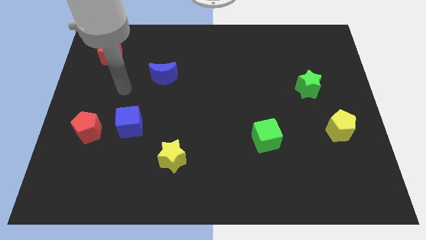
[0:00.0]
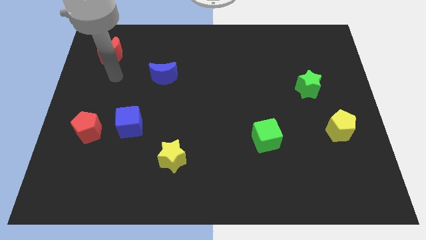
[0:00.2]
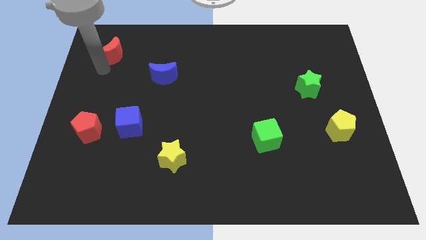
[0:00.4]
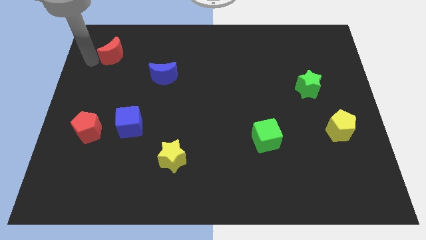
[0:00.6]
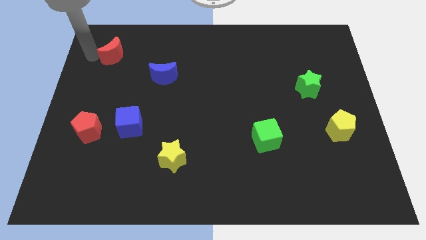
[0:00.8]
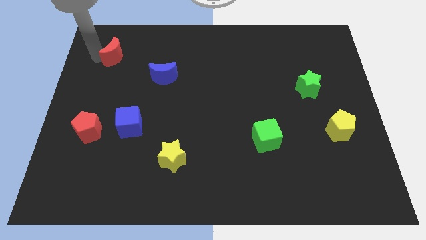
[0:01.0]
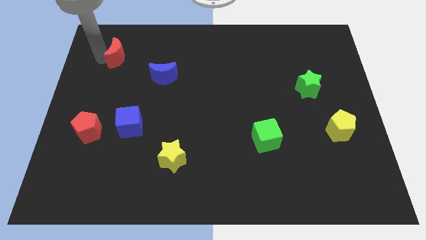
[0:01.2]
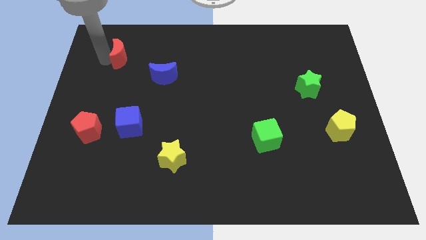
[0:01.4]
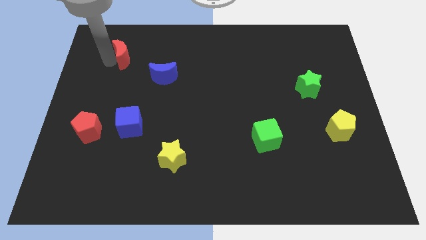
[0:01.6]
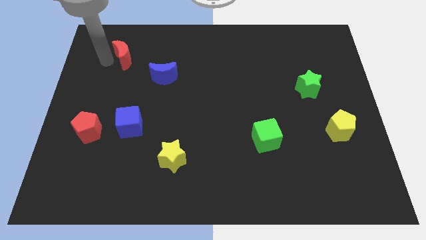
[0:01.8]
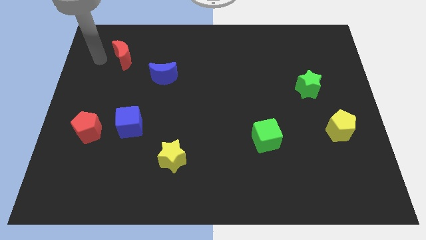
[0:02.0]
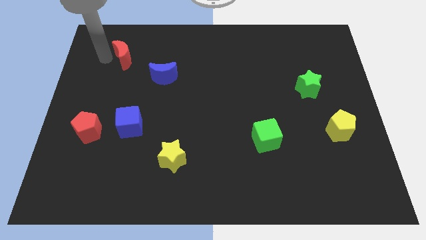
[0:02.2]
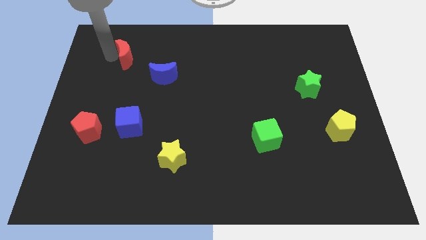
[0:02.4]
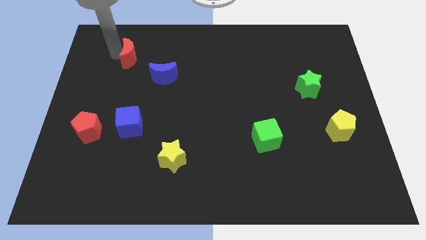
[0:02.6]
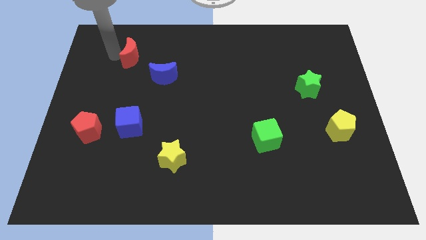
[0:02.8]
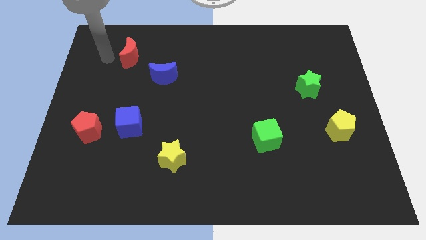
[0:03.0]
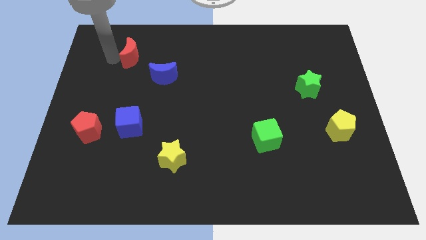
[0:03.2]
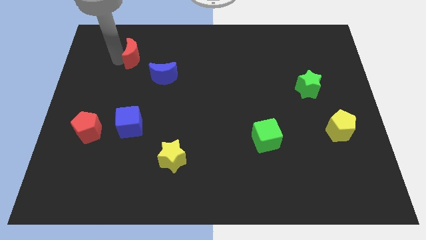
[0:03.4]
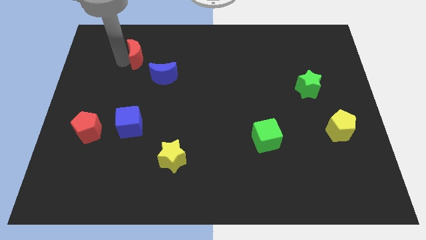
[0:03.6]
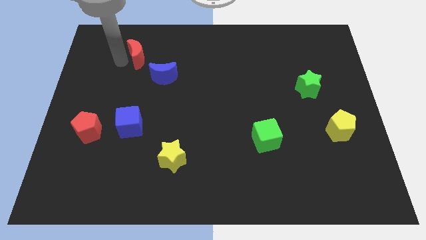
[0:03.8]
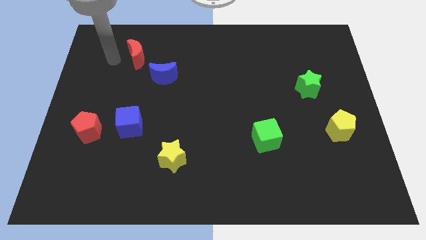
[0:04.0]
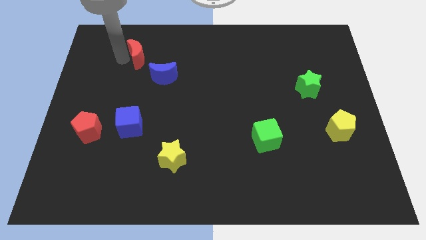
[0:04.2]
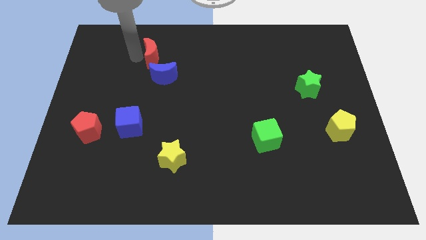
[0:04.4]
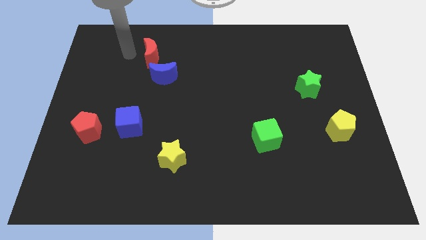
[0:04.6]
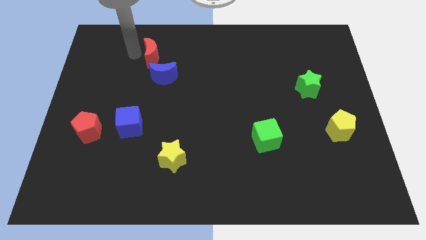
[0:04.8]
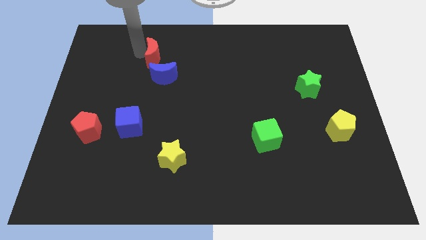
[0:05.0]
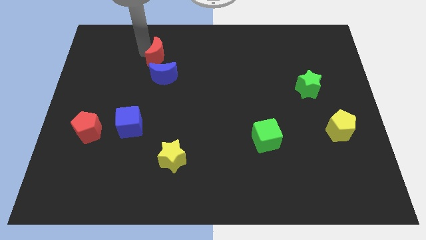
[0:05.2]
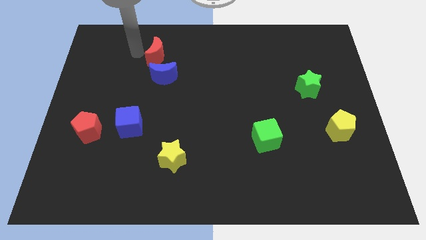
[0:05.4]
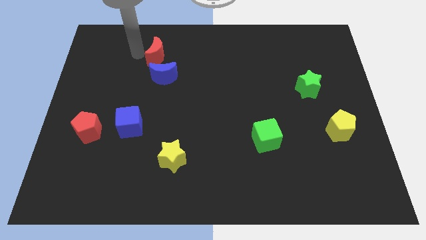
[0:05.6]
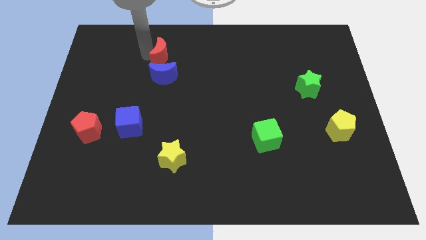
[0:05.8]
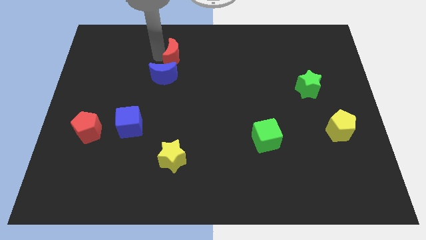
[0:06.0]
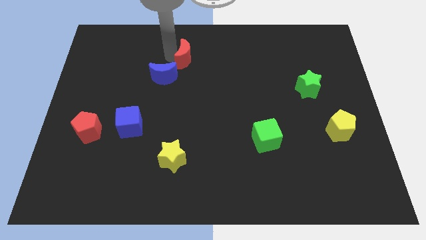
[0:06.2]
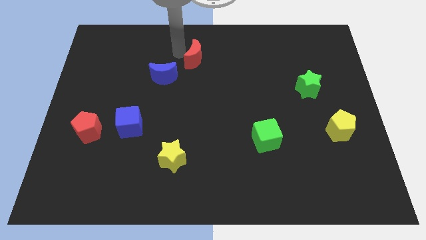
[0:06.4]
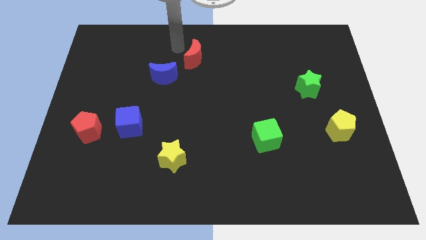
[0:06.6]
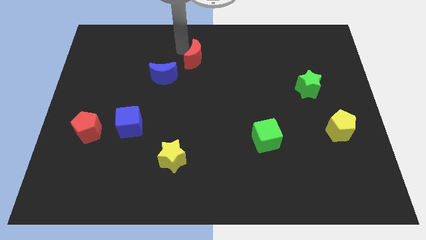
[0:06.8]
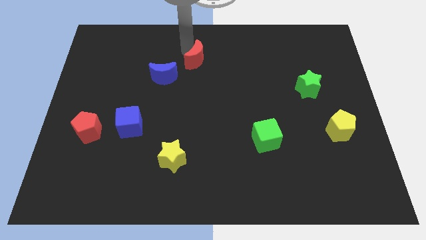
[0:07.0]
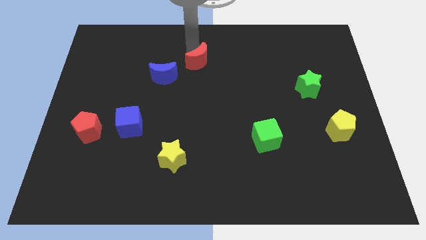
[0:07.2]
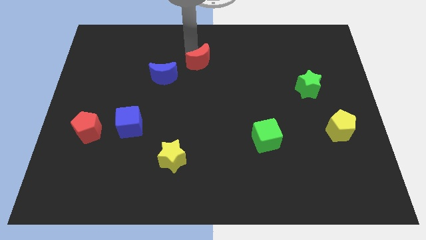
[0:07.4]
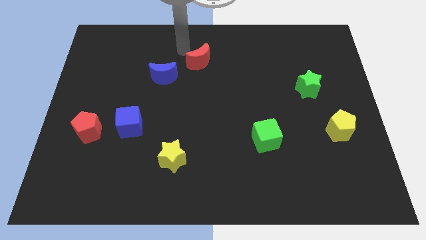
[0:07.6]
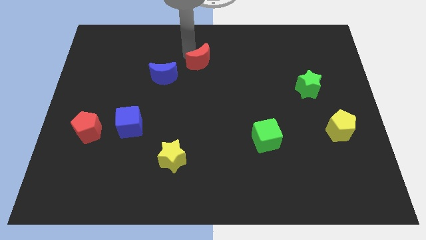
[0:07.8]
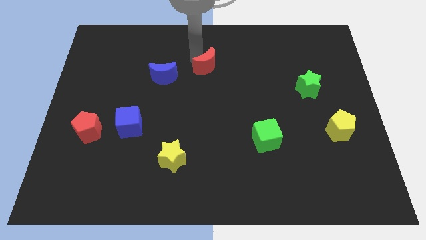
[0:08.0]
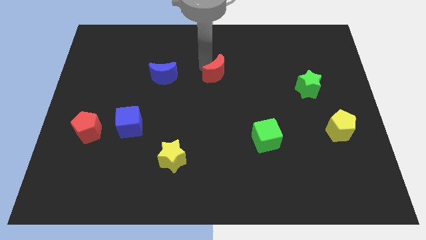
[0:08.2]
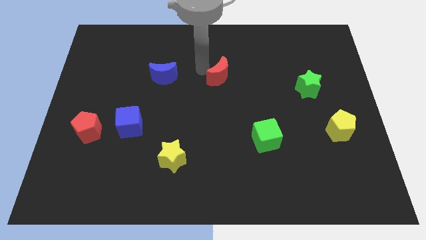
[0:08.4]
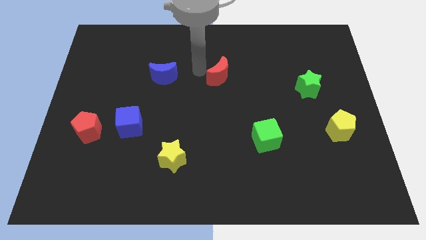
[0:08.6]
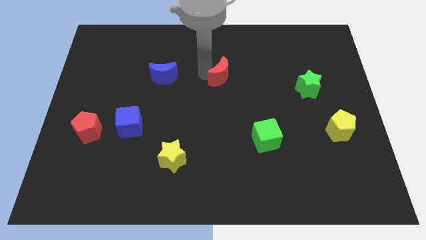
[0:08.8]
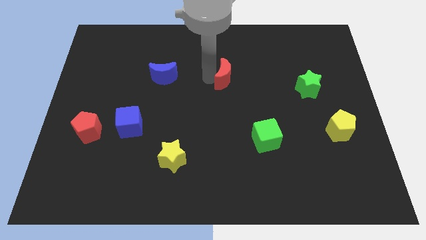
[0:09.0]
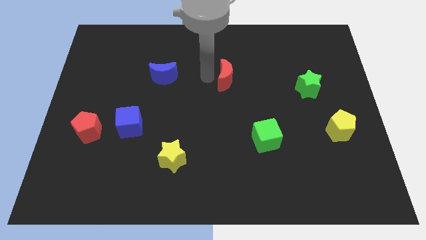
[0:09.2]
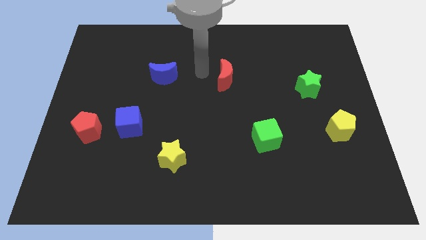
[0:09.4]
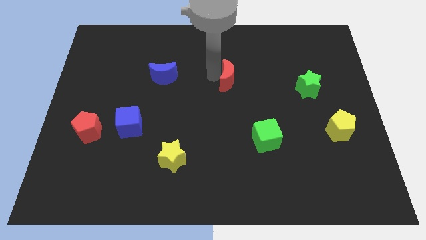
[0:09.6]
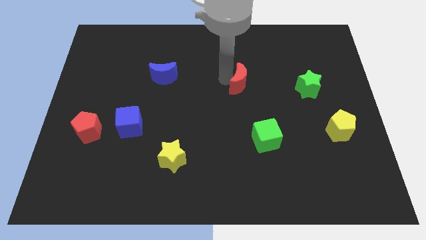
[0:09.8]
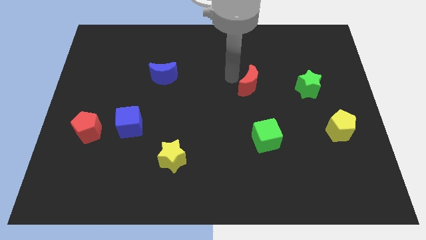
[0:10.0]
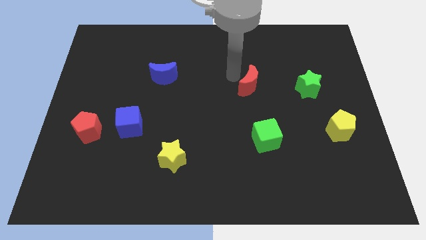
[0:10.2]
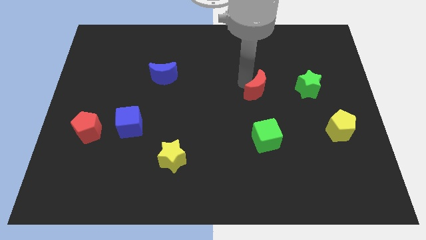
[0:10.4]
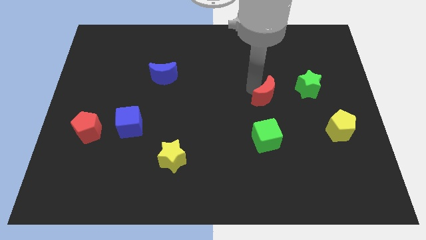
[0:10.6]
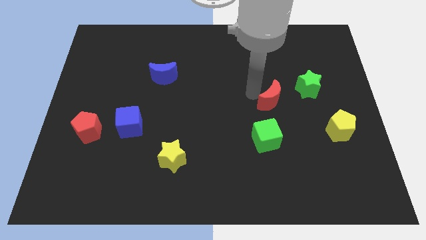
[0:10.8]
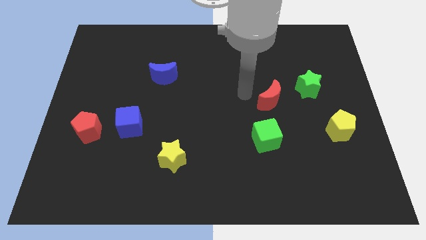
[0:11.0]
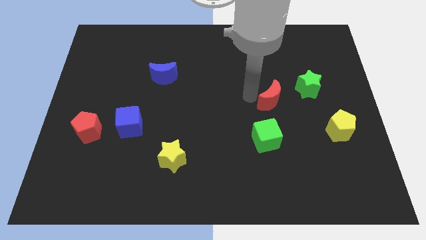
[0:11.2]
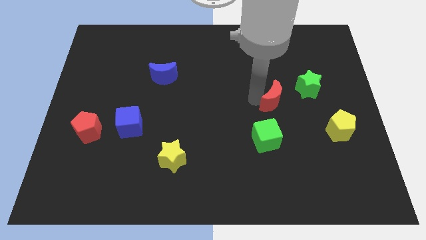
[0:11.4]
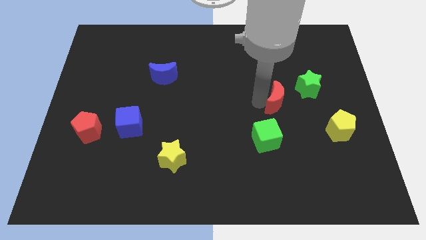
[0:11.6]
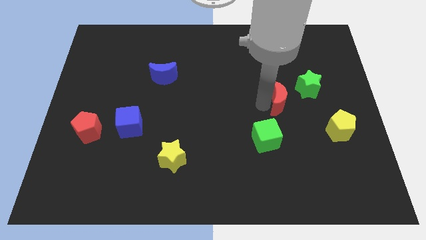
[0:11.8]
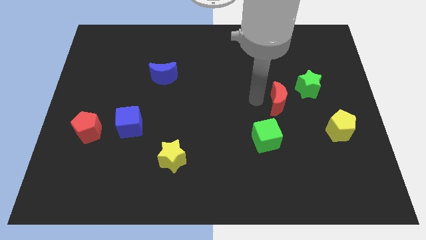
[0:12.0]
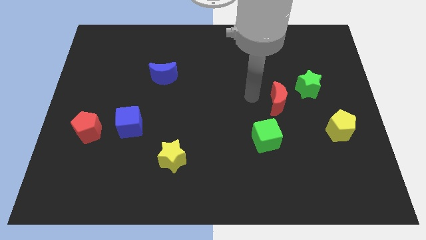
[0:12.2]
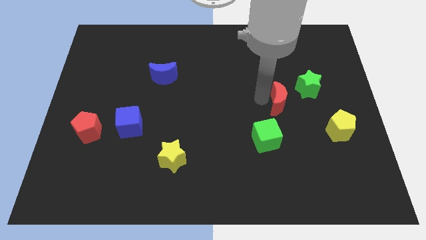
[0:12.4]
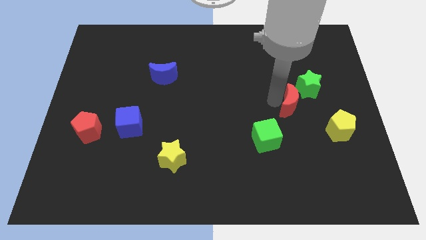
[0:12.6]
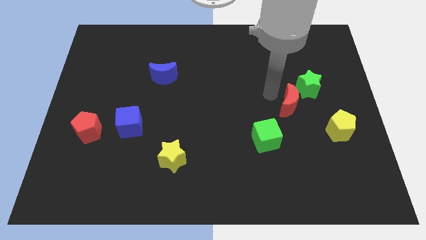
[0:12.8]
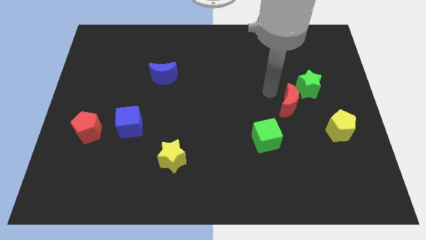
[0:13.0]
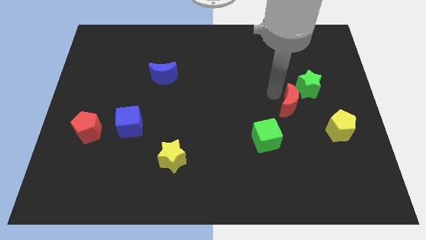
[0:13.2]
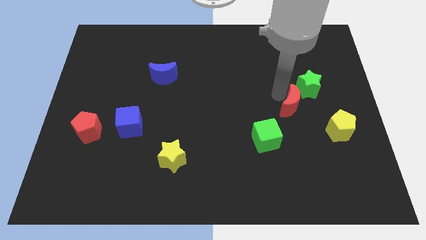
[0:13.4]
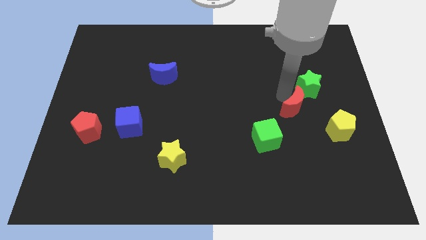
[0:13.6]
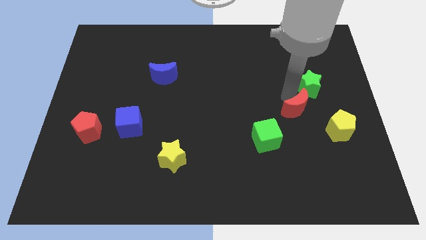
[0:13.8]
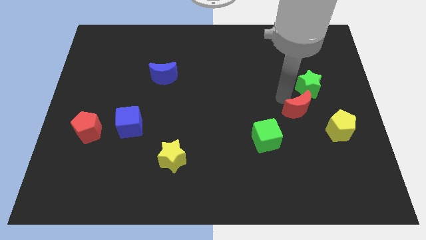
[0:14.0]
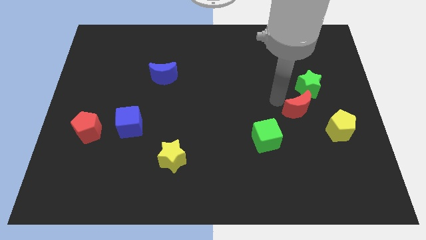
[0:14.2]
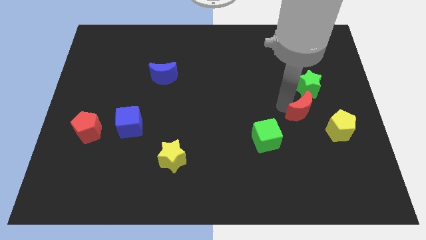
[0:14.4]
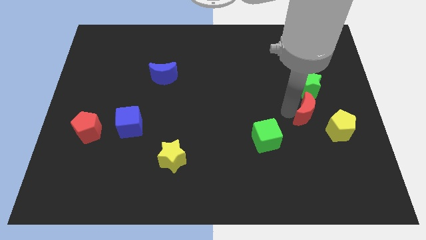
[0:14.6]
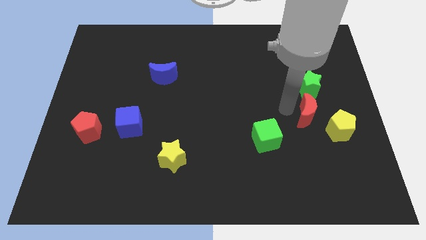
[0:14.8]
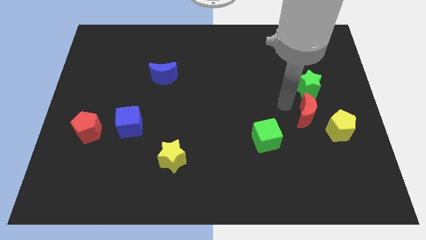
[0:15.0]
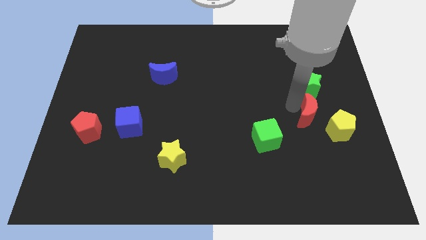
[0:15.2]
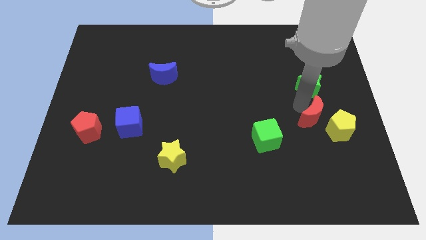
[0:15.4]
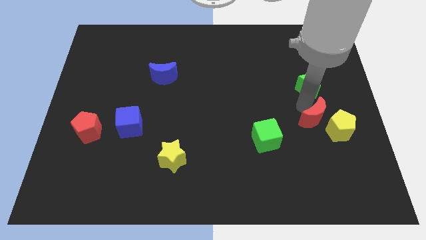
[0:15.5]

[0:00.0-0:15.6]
move the red moon close to the yellow pentagon

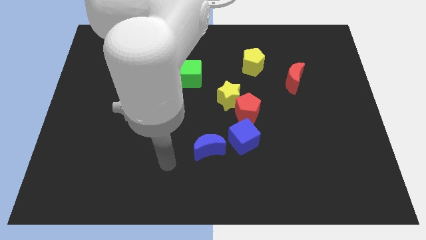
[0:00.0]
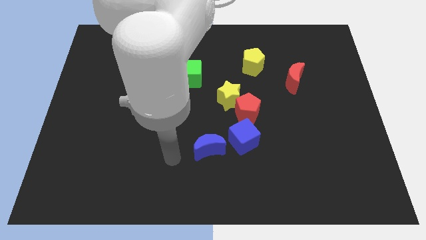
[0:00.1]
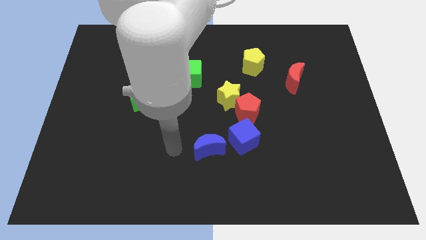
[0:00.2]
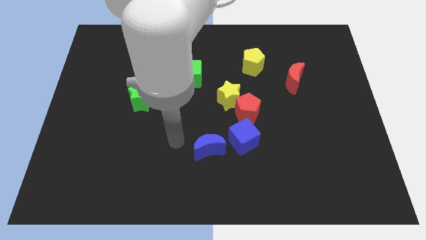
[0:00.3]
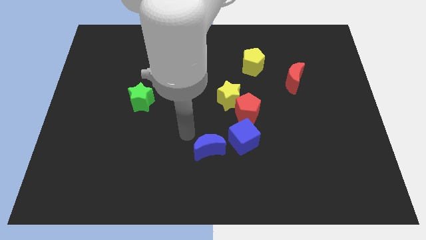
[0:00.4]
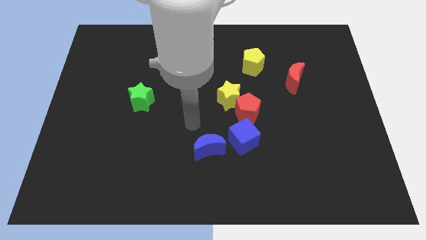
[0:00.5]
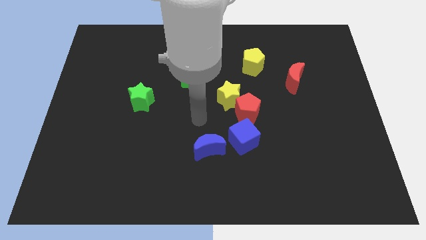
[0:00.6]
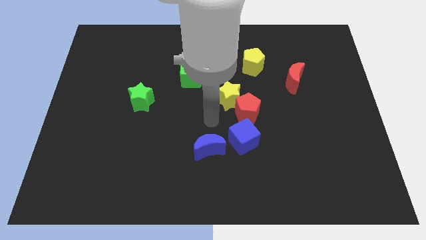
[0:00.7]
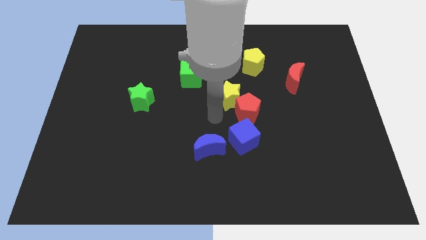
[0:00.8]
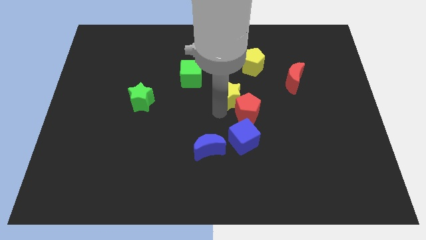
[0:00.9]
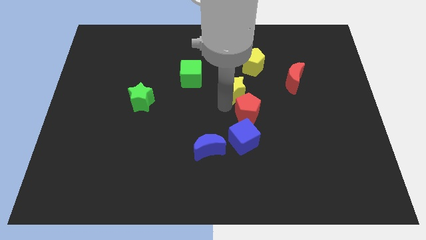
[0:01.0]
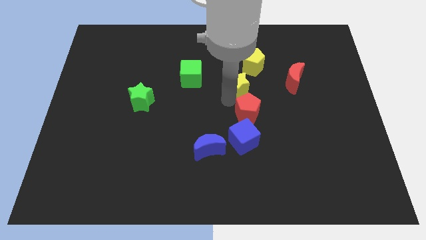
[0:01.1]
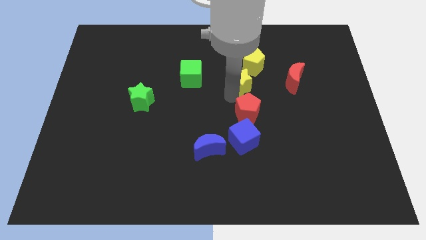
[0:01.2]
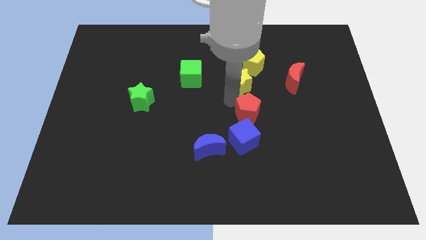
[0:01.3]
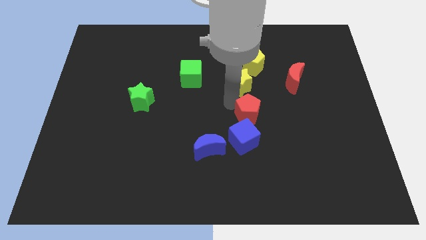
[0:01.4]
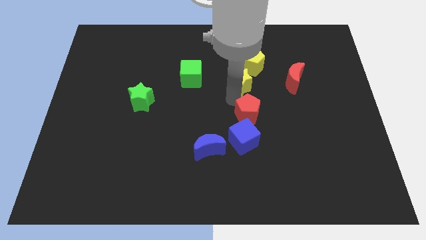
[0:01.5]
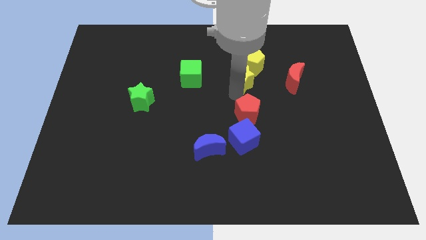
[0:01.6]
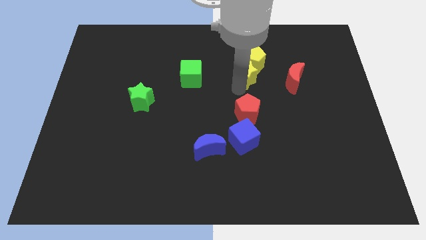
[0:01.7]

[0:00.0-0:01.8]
push the yellow star towards the yellow pentagon
